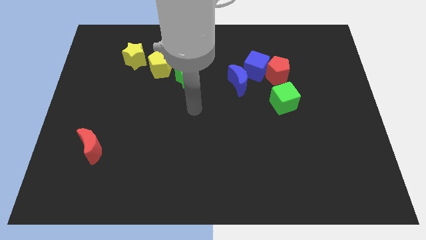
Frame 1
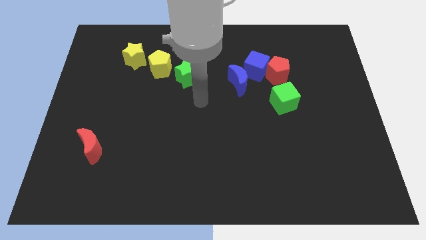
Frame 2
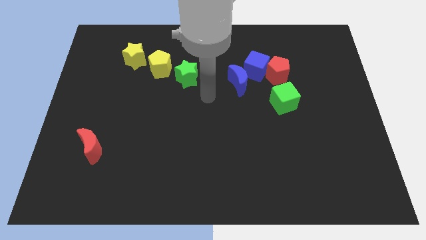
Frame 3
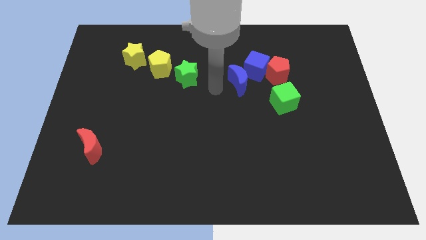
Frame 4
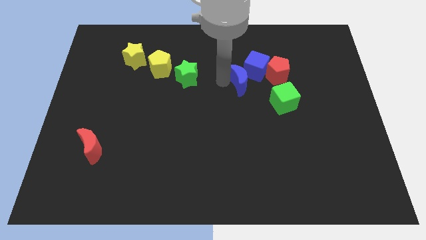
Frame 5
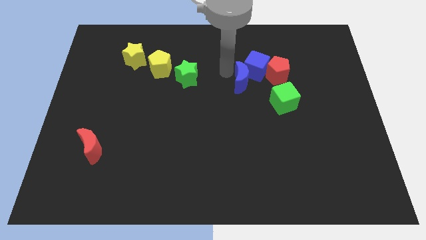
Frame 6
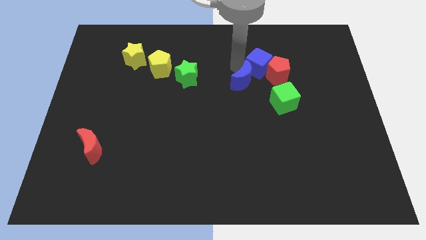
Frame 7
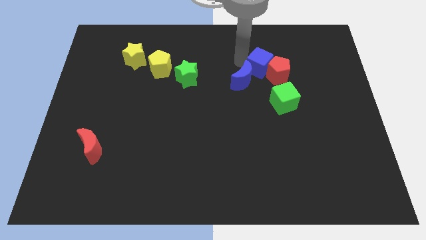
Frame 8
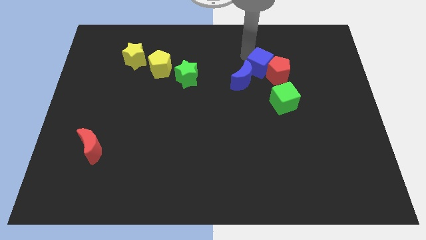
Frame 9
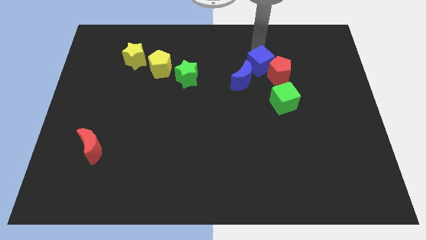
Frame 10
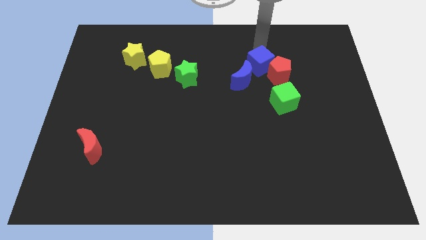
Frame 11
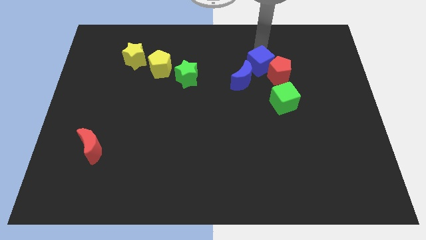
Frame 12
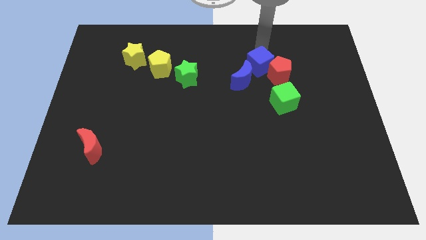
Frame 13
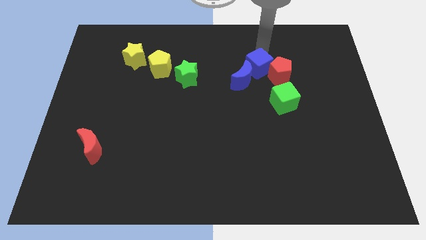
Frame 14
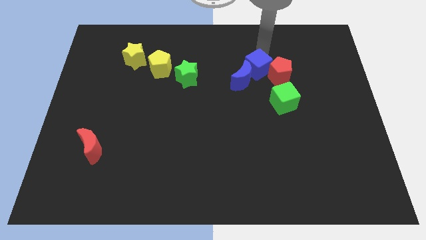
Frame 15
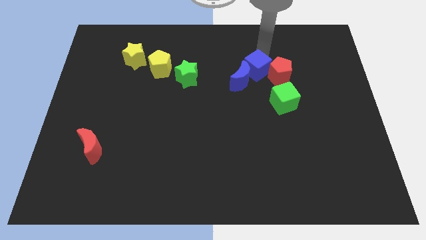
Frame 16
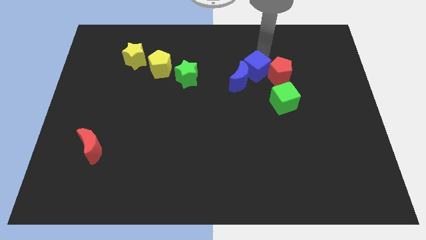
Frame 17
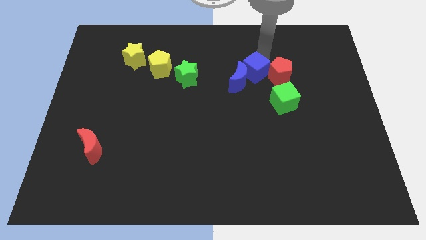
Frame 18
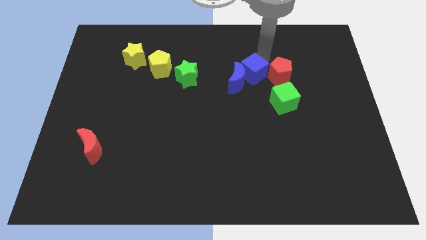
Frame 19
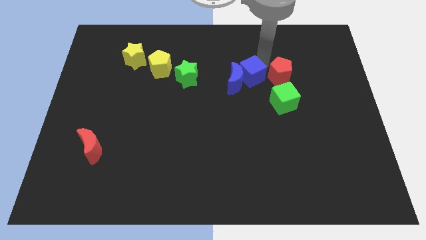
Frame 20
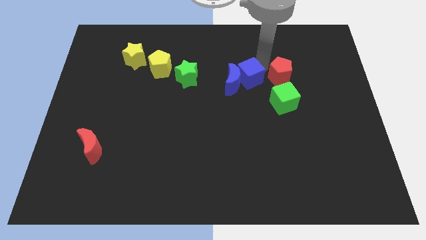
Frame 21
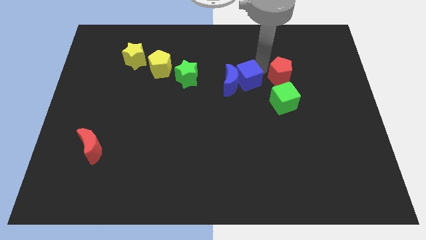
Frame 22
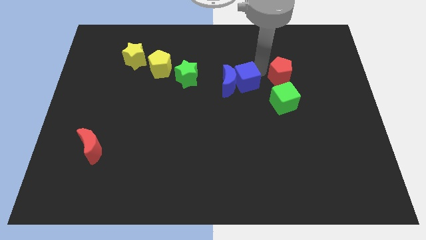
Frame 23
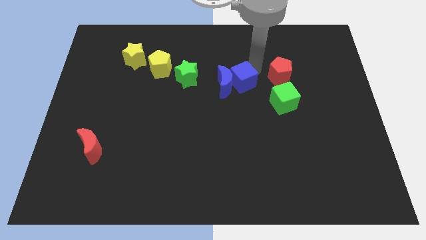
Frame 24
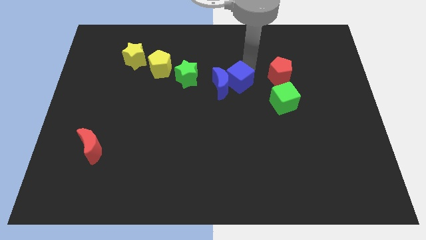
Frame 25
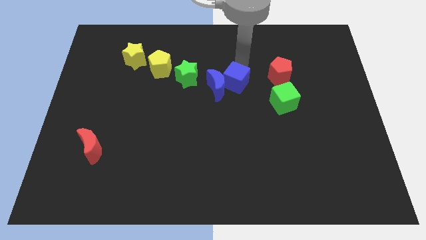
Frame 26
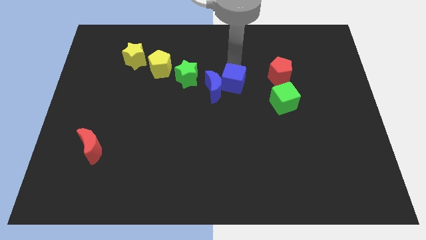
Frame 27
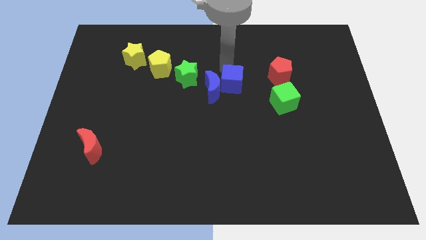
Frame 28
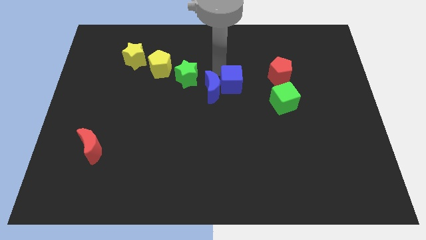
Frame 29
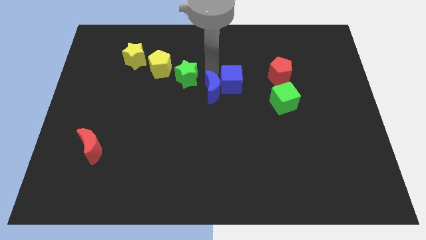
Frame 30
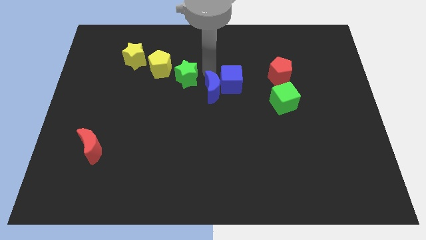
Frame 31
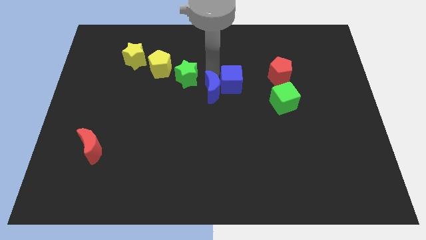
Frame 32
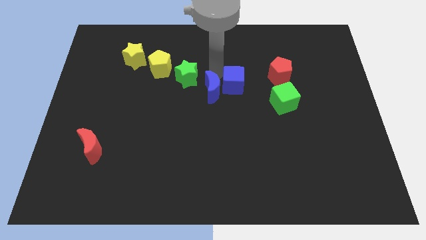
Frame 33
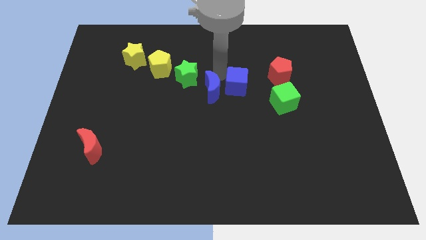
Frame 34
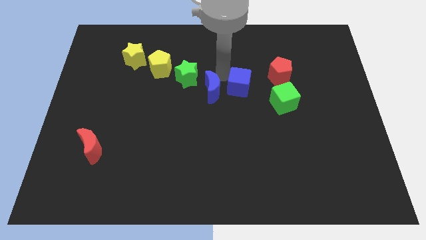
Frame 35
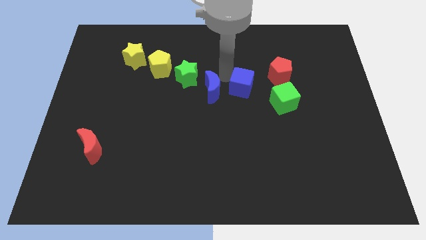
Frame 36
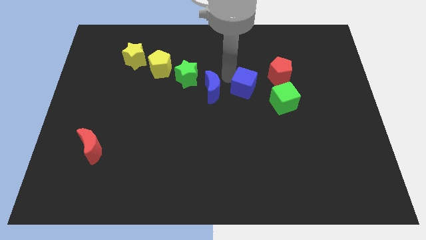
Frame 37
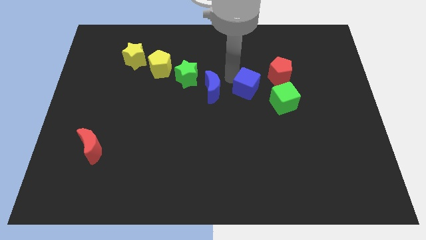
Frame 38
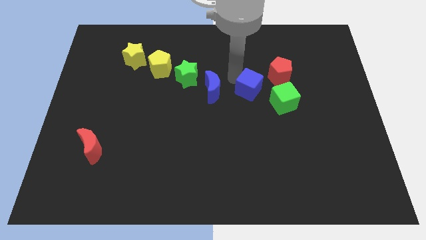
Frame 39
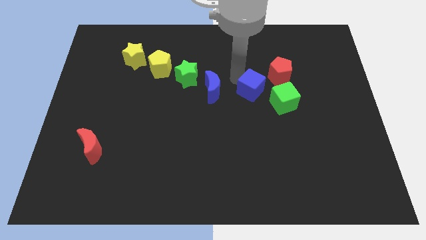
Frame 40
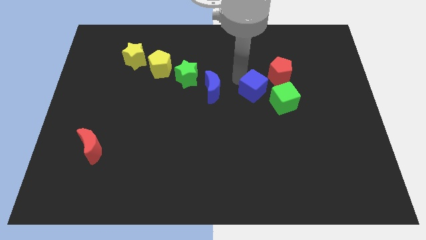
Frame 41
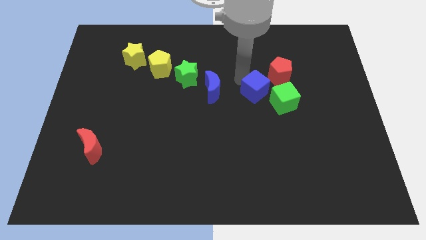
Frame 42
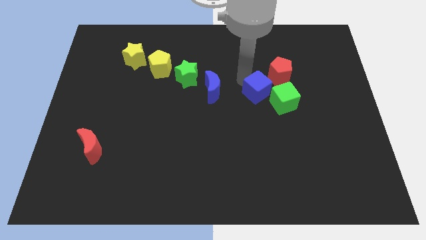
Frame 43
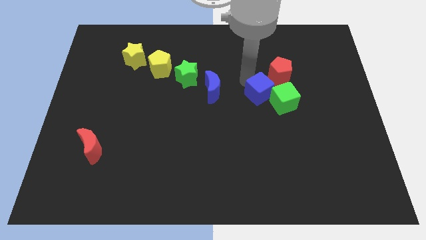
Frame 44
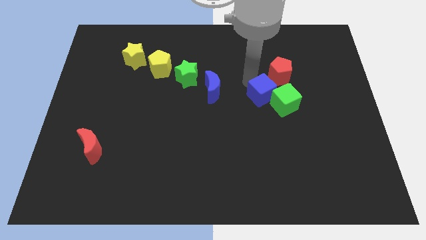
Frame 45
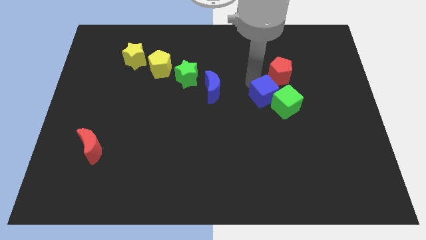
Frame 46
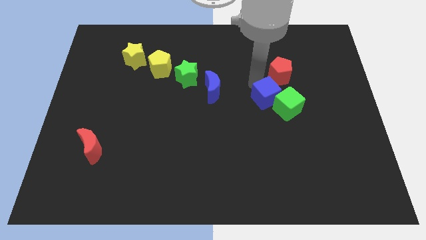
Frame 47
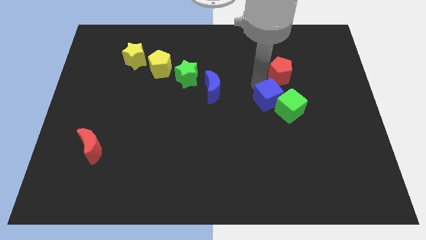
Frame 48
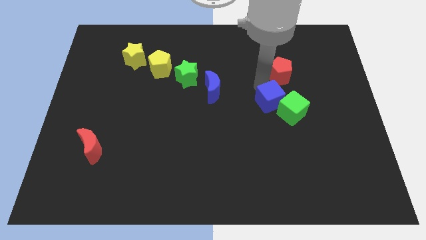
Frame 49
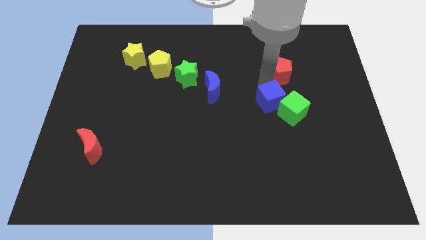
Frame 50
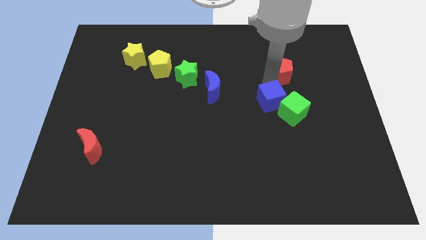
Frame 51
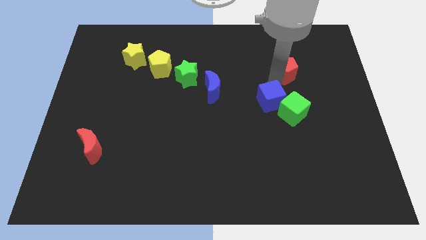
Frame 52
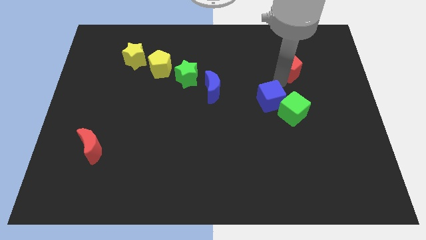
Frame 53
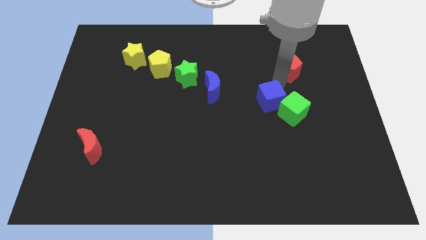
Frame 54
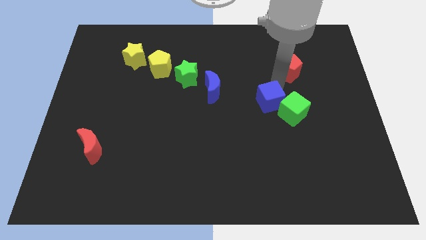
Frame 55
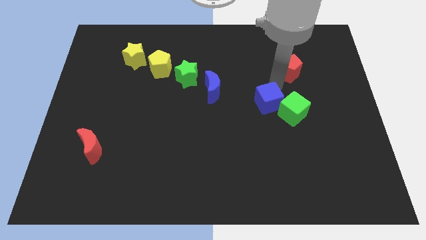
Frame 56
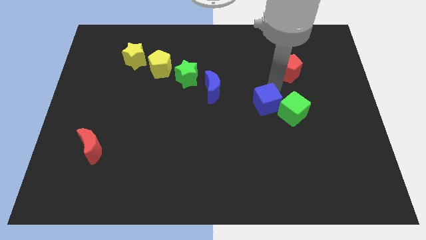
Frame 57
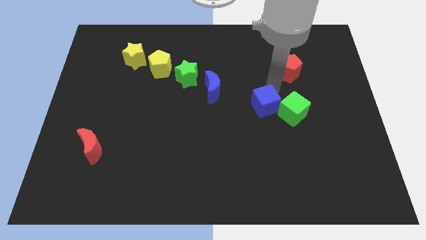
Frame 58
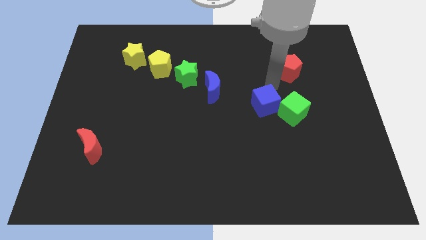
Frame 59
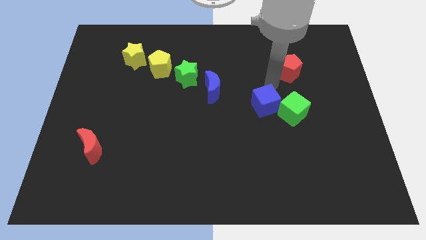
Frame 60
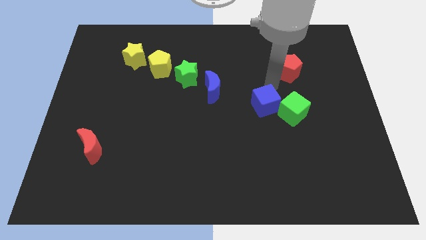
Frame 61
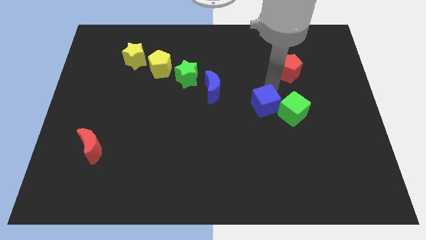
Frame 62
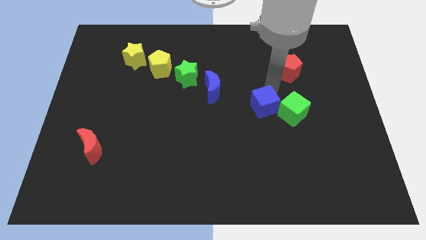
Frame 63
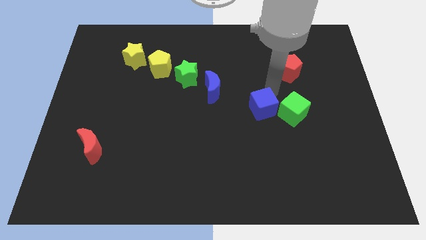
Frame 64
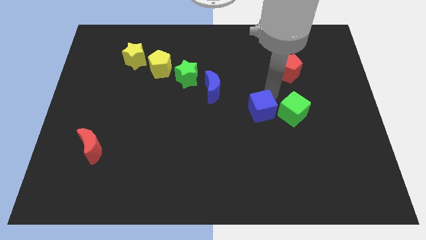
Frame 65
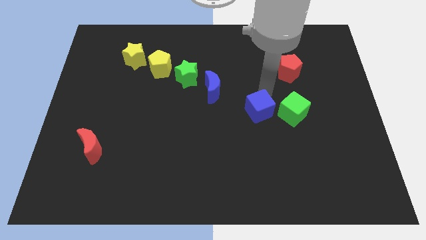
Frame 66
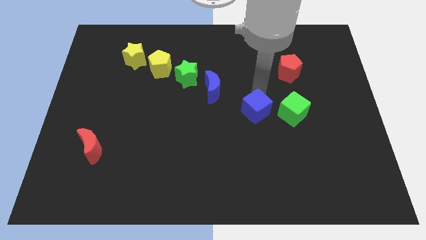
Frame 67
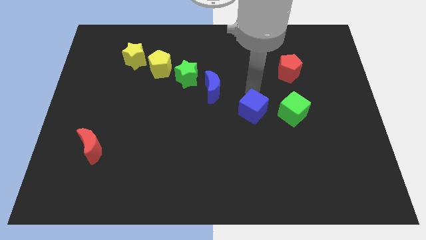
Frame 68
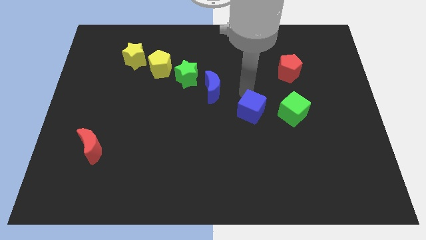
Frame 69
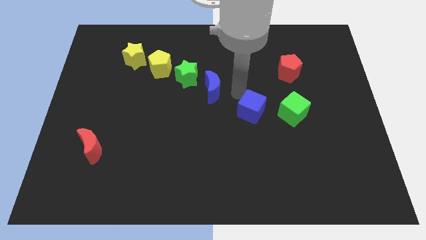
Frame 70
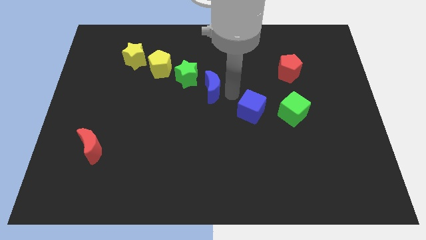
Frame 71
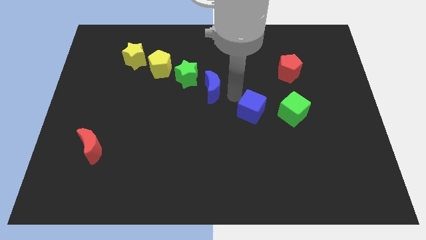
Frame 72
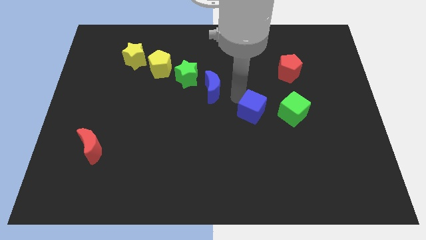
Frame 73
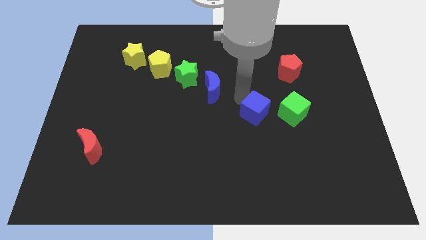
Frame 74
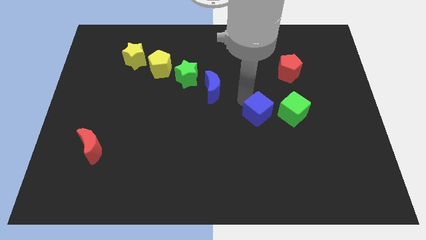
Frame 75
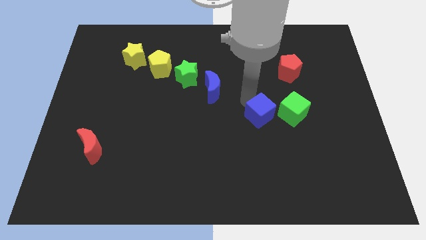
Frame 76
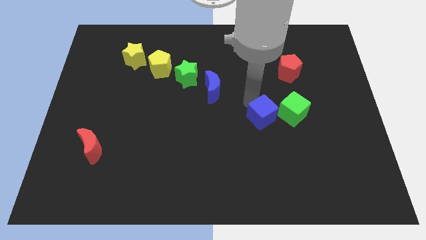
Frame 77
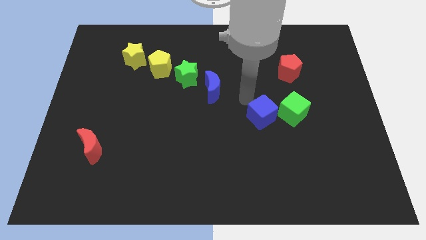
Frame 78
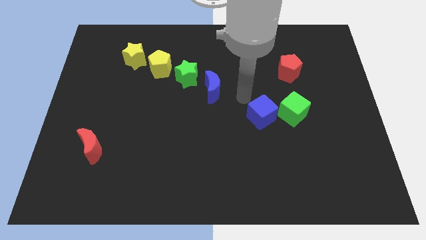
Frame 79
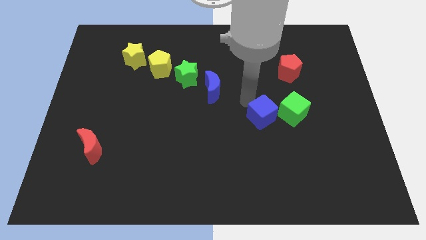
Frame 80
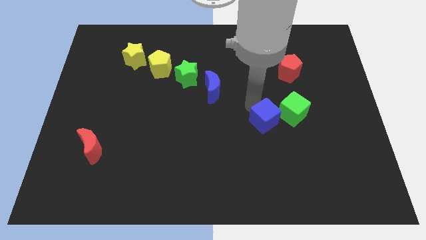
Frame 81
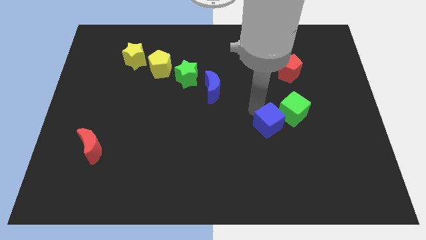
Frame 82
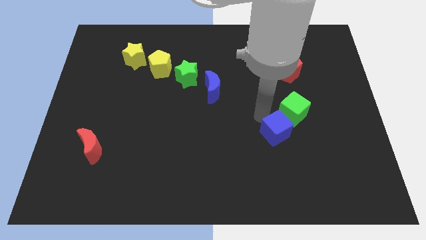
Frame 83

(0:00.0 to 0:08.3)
move the blue cube to the bottom side of the green cube
